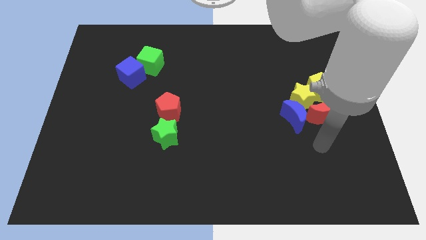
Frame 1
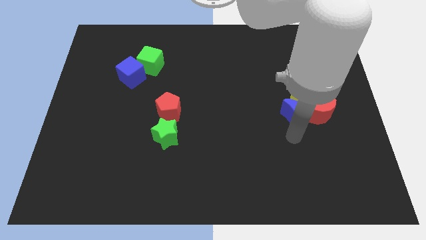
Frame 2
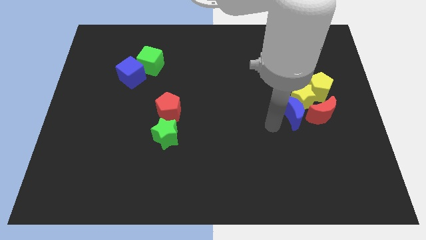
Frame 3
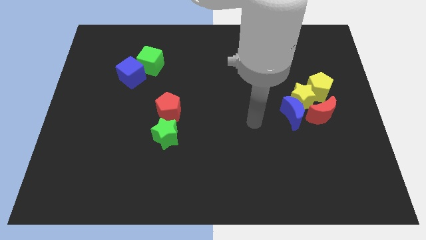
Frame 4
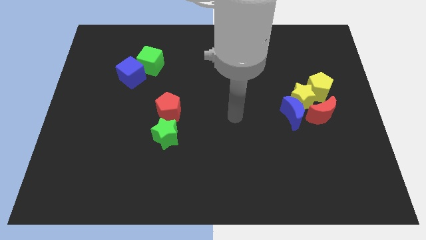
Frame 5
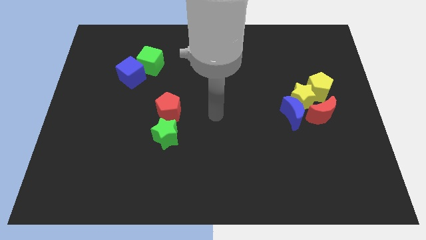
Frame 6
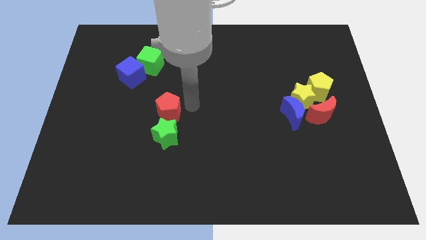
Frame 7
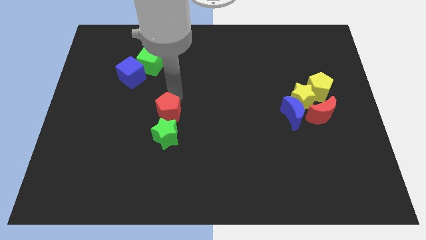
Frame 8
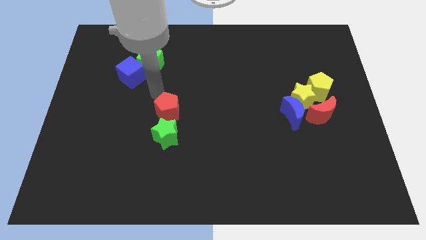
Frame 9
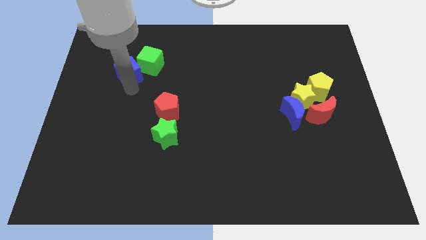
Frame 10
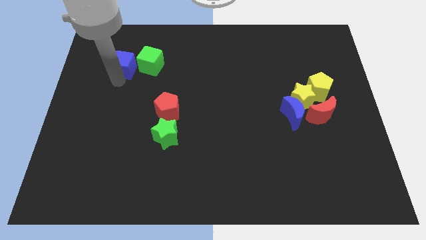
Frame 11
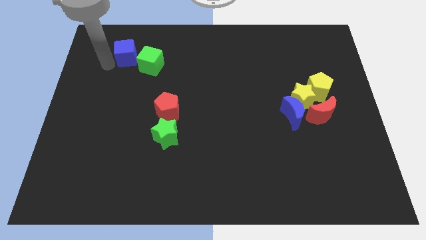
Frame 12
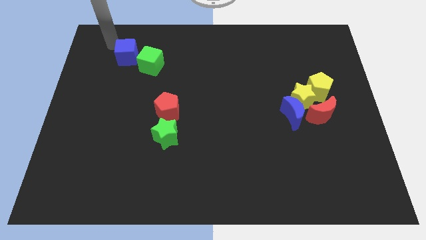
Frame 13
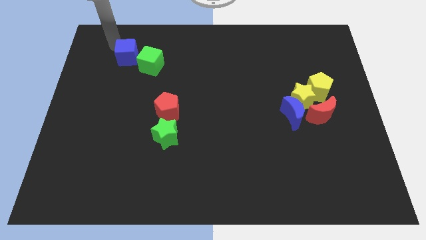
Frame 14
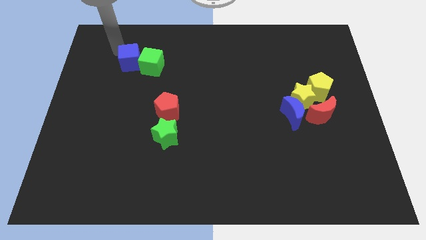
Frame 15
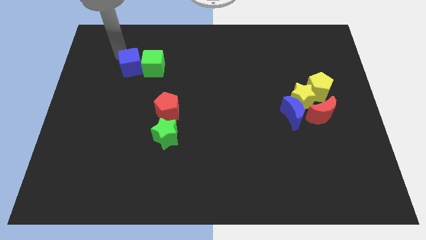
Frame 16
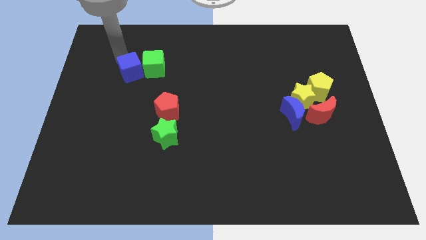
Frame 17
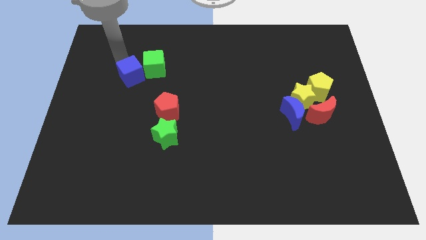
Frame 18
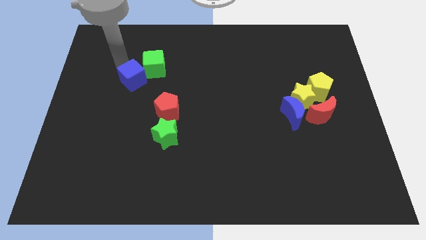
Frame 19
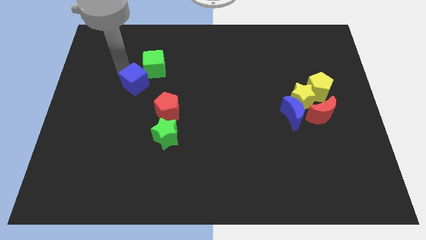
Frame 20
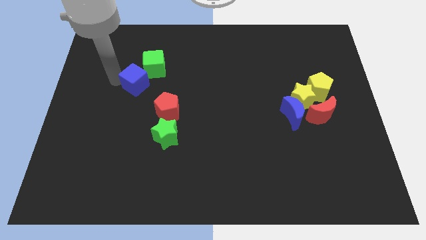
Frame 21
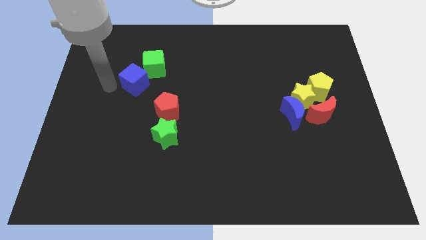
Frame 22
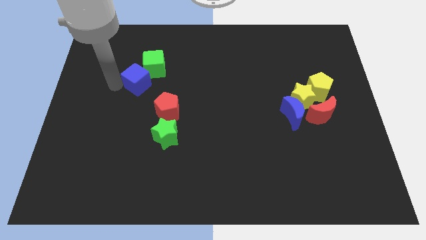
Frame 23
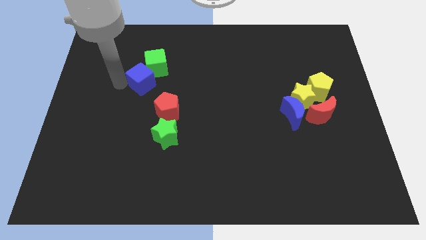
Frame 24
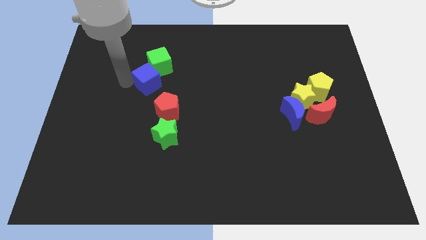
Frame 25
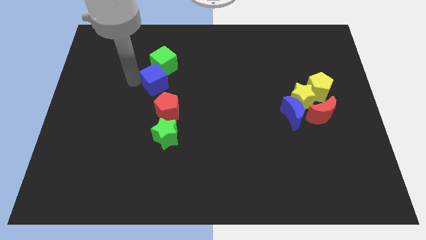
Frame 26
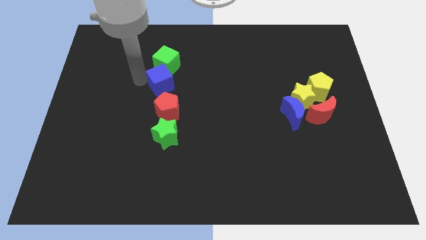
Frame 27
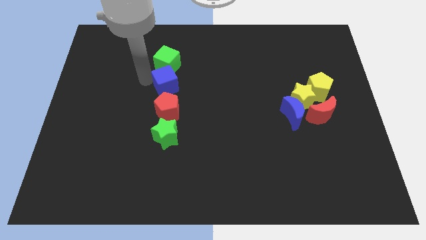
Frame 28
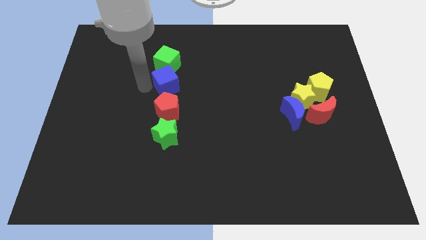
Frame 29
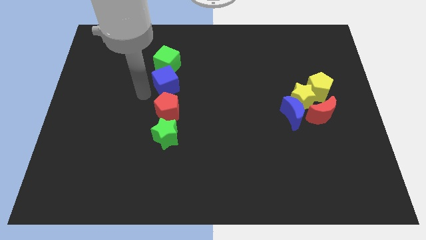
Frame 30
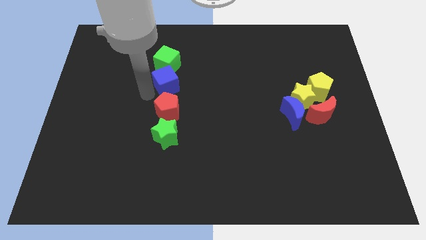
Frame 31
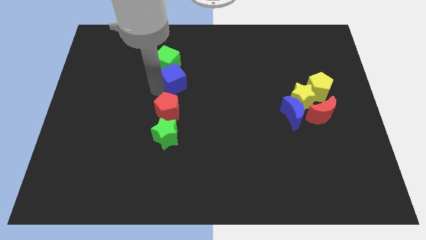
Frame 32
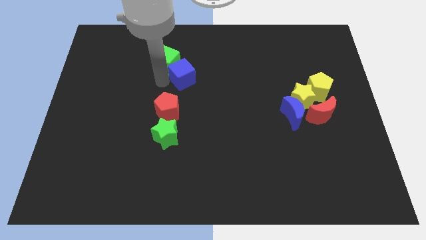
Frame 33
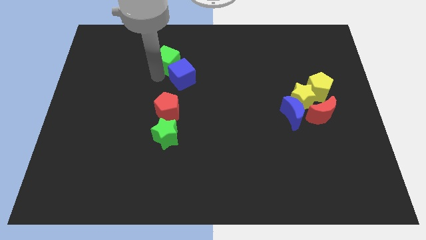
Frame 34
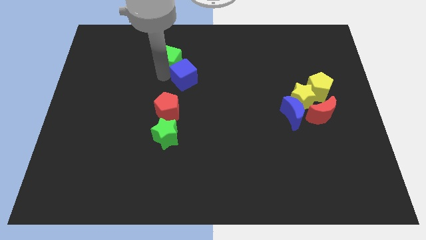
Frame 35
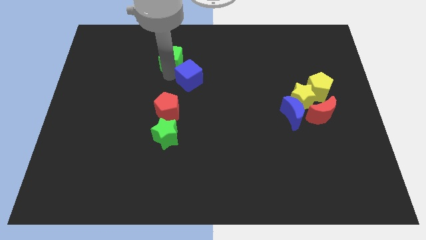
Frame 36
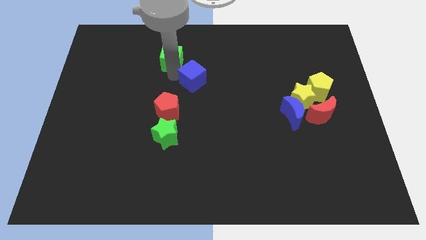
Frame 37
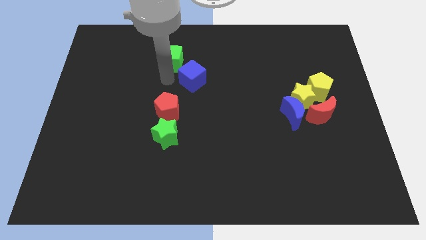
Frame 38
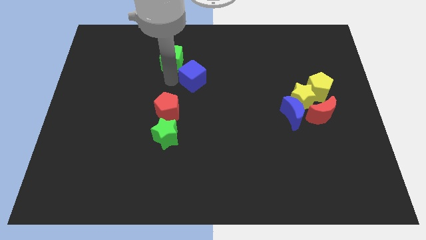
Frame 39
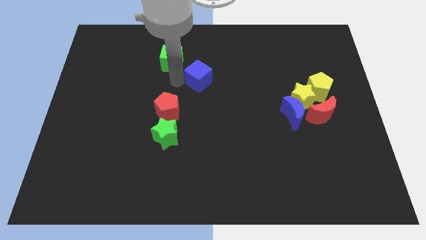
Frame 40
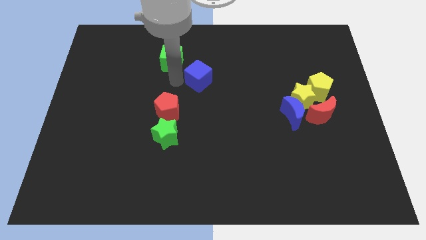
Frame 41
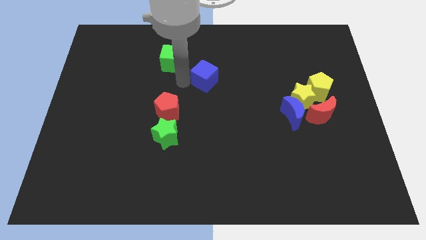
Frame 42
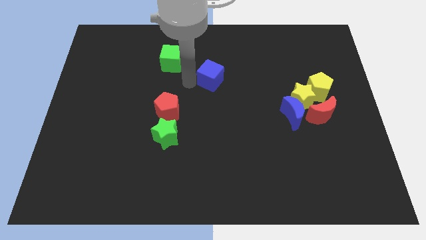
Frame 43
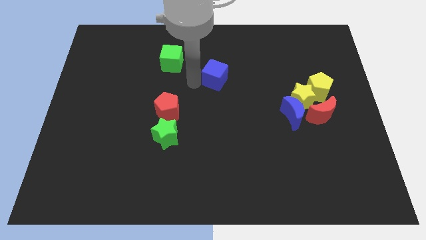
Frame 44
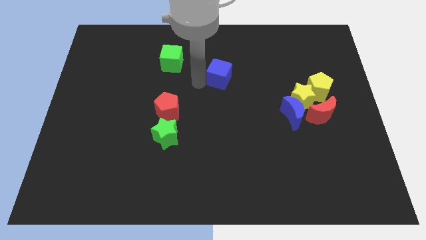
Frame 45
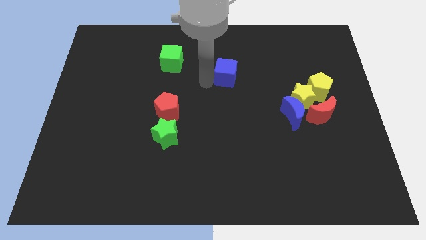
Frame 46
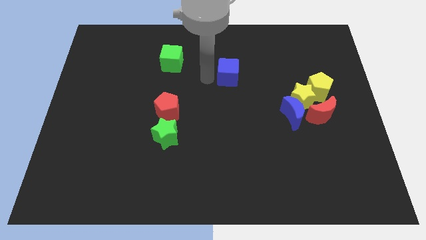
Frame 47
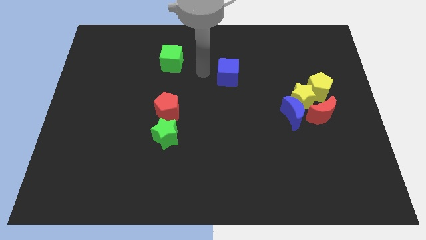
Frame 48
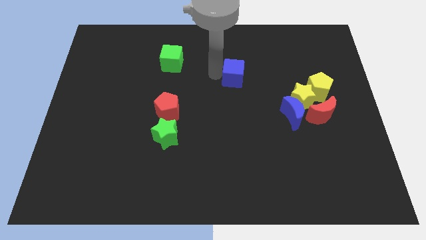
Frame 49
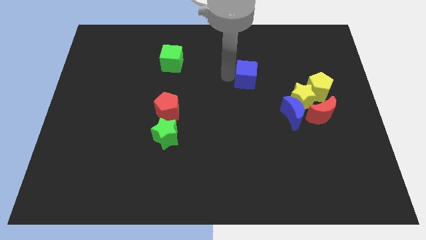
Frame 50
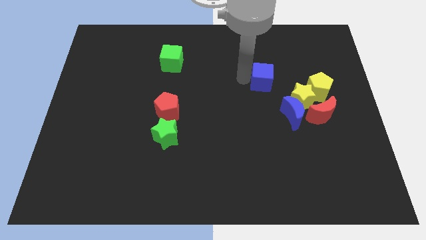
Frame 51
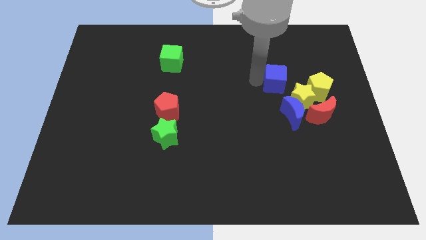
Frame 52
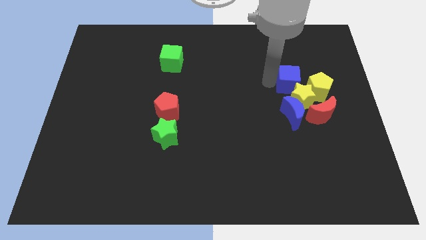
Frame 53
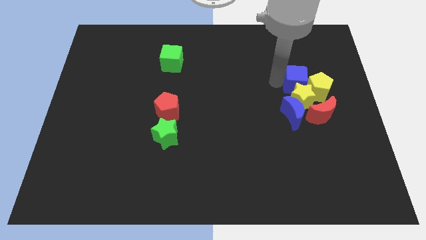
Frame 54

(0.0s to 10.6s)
put the blue cube towards the yellow pentagon

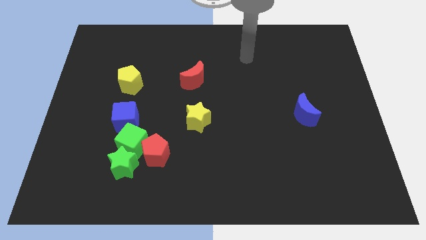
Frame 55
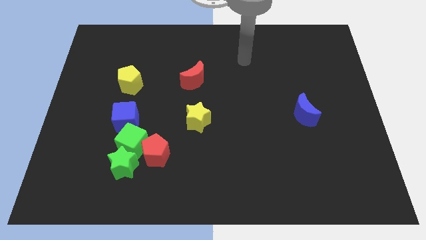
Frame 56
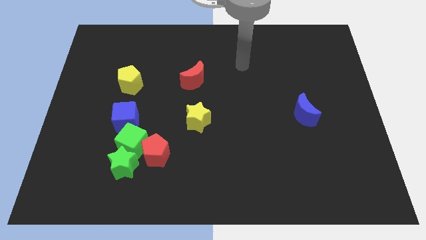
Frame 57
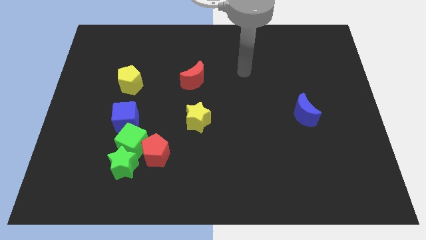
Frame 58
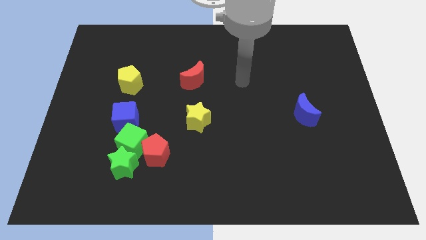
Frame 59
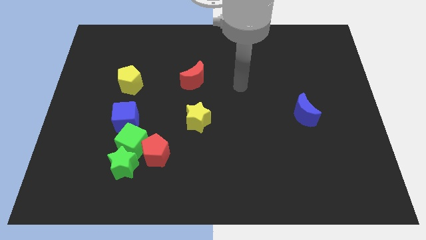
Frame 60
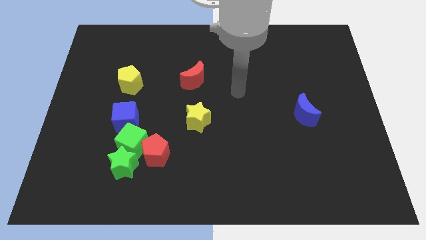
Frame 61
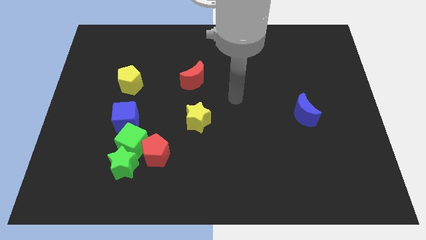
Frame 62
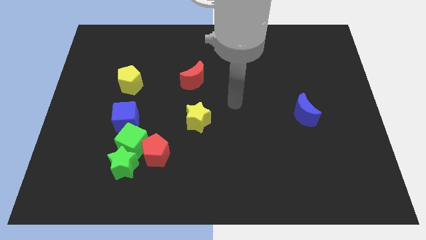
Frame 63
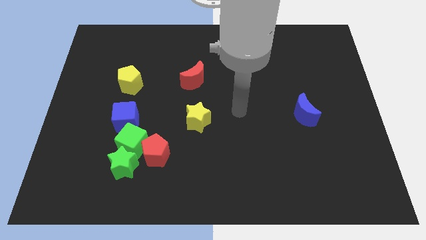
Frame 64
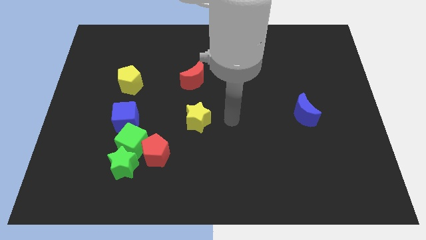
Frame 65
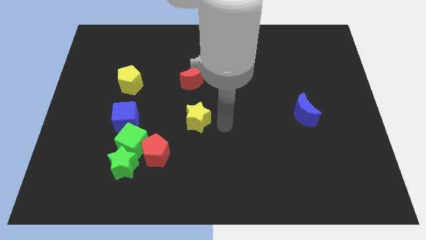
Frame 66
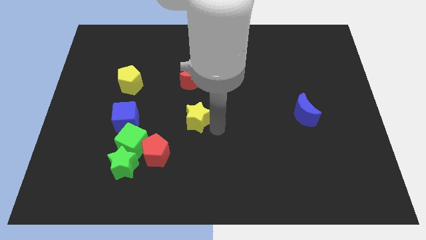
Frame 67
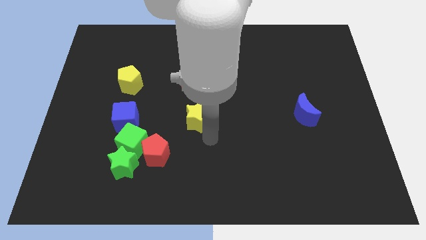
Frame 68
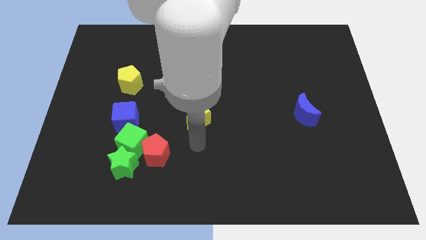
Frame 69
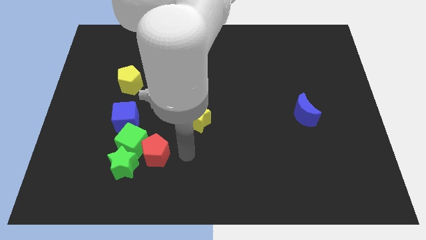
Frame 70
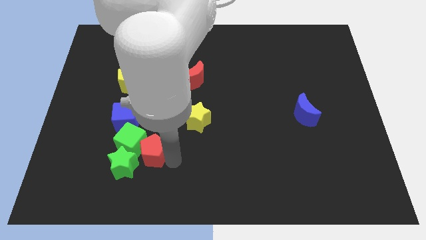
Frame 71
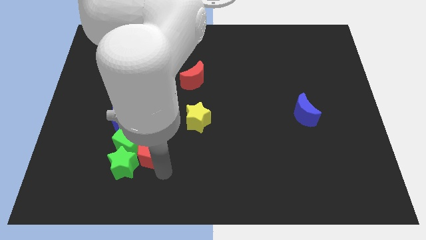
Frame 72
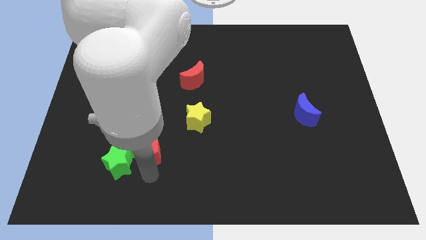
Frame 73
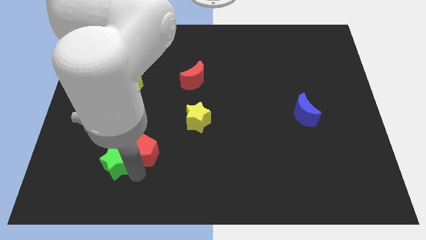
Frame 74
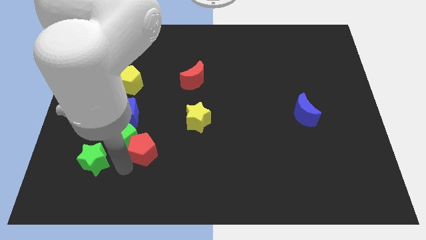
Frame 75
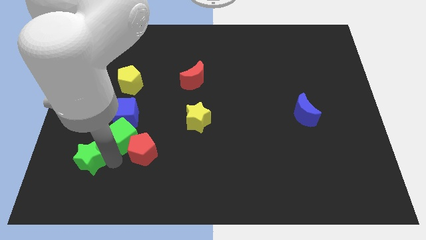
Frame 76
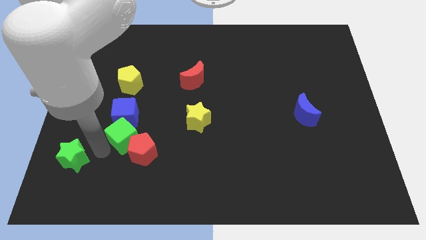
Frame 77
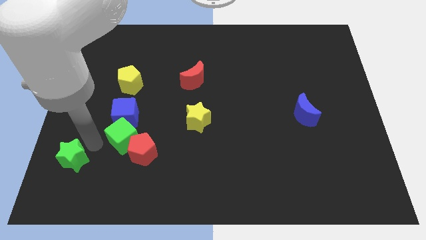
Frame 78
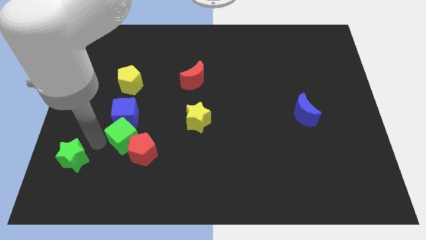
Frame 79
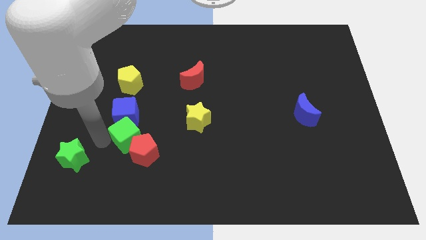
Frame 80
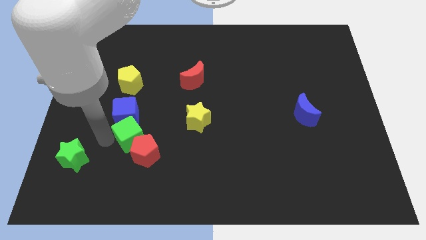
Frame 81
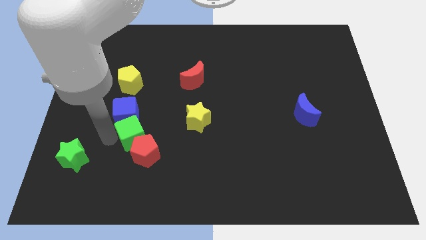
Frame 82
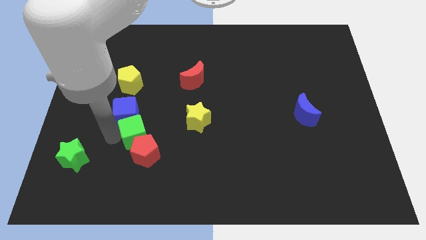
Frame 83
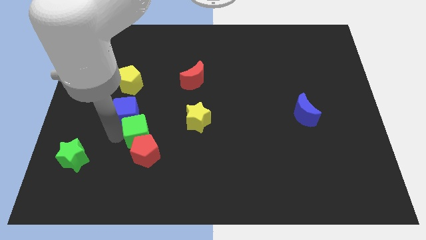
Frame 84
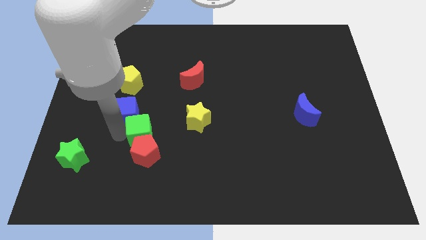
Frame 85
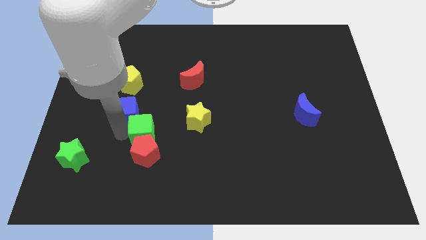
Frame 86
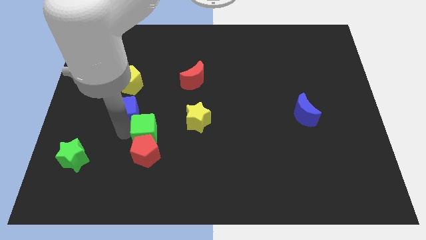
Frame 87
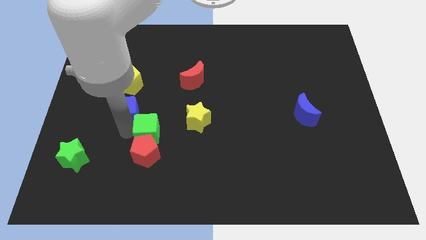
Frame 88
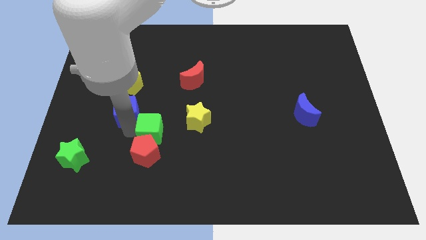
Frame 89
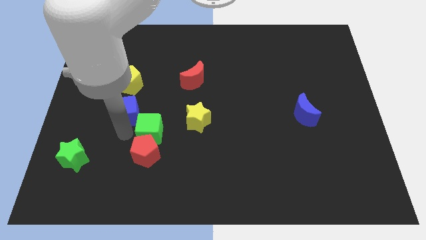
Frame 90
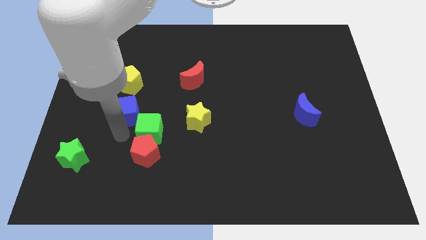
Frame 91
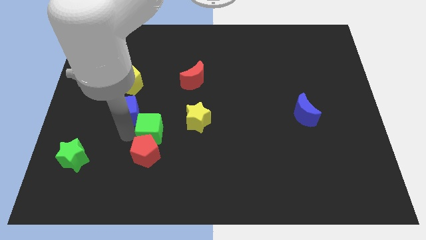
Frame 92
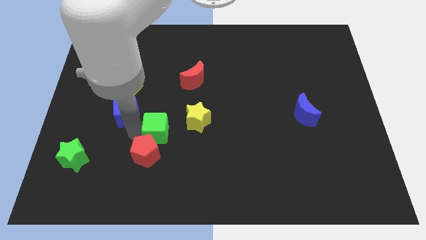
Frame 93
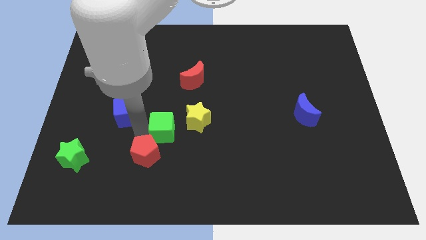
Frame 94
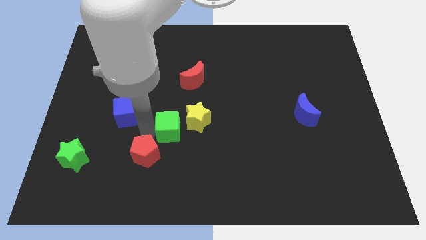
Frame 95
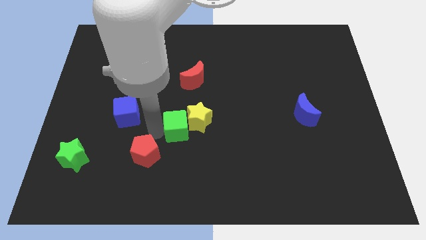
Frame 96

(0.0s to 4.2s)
put the green cube next to the yellow star
